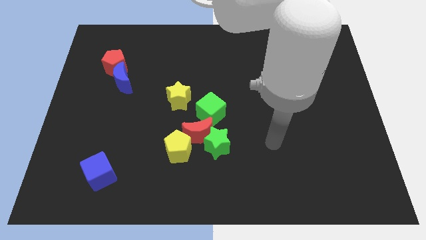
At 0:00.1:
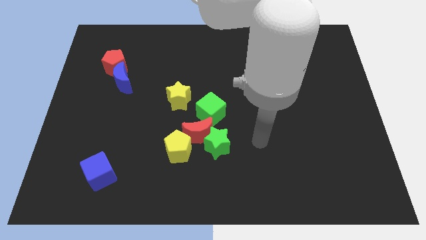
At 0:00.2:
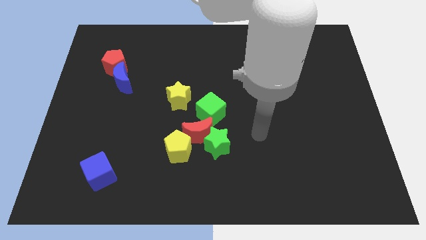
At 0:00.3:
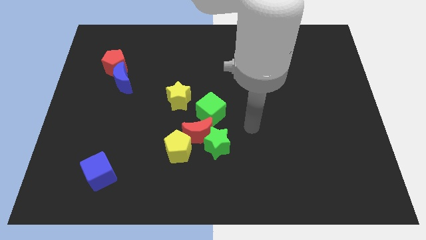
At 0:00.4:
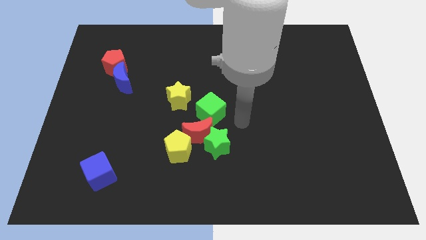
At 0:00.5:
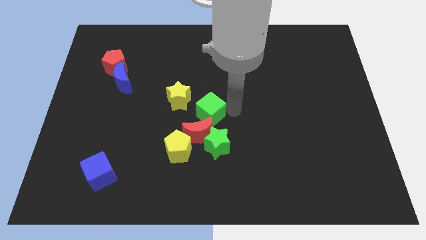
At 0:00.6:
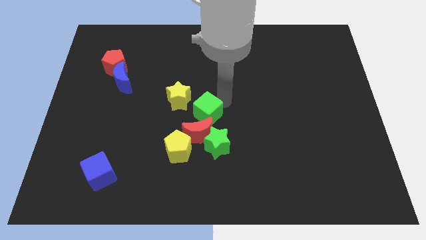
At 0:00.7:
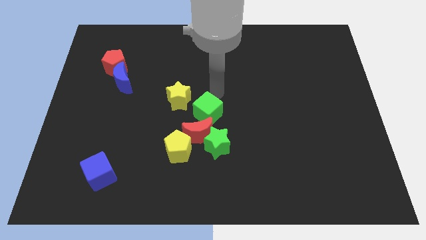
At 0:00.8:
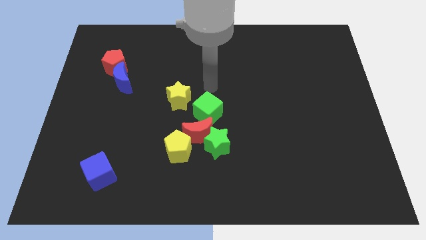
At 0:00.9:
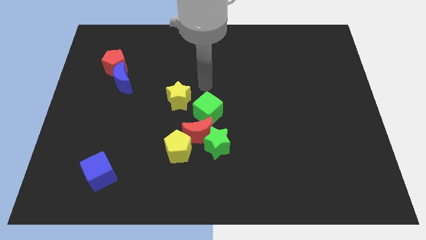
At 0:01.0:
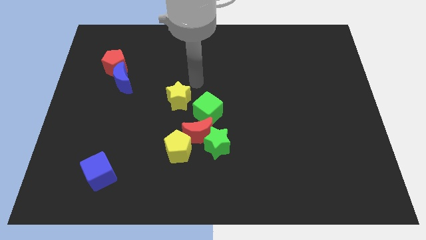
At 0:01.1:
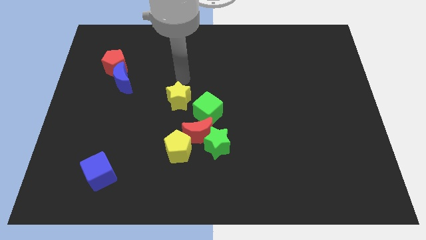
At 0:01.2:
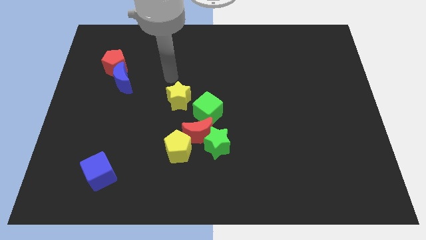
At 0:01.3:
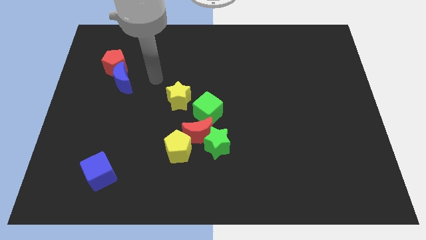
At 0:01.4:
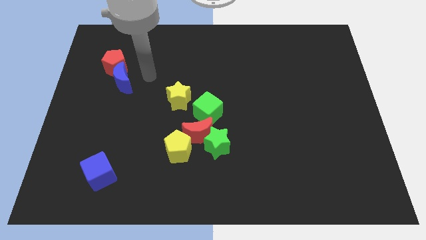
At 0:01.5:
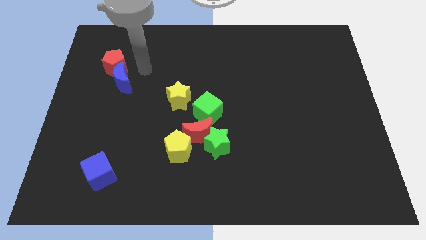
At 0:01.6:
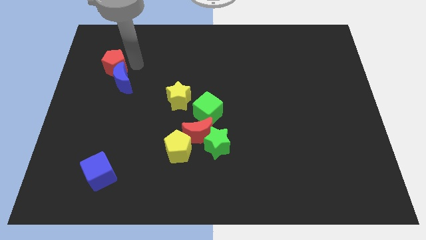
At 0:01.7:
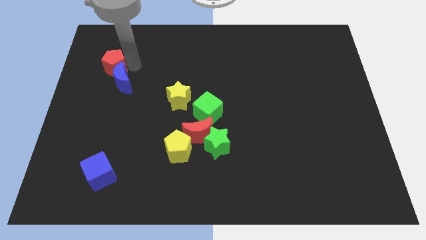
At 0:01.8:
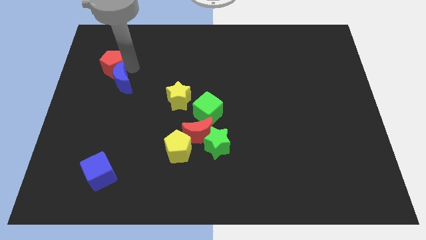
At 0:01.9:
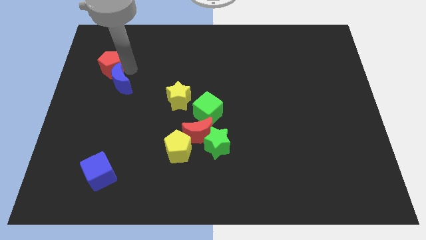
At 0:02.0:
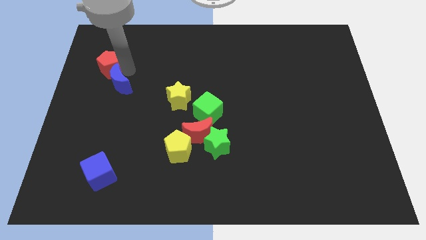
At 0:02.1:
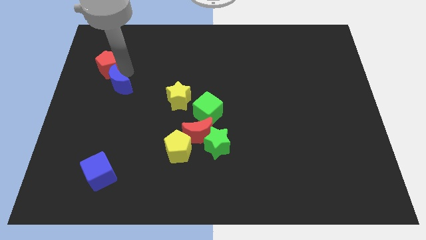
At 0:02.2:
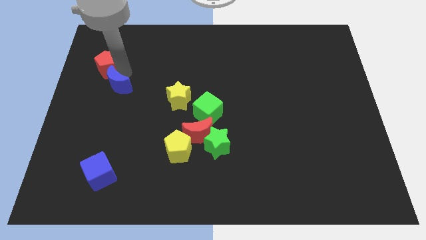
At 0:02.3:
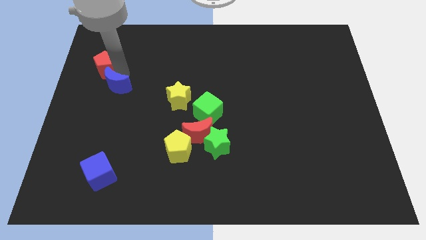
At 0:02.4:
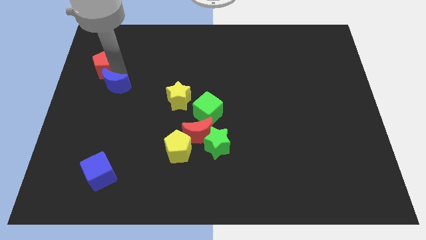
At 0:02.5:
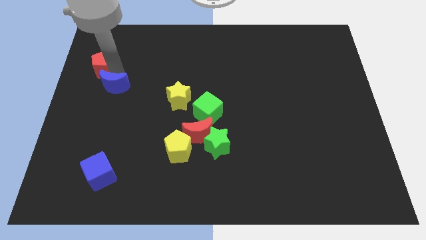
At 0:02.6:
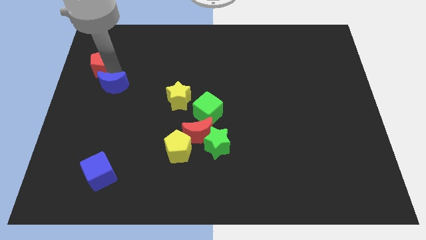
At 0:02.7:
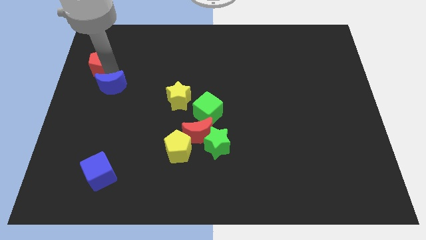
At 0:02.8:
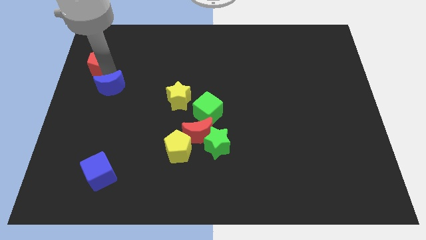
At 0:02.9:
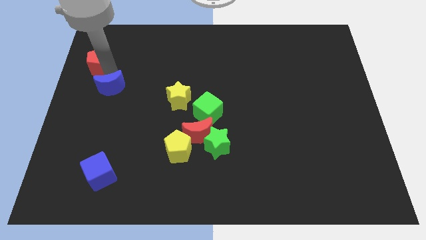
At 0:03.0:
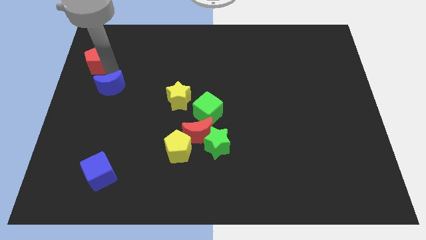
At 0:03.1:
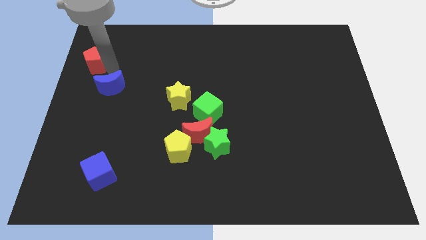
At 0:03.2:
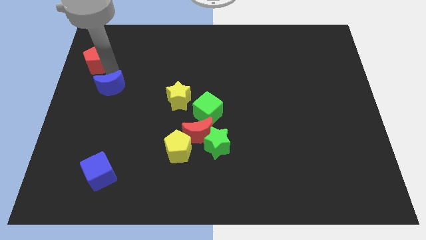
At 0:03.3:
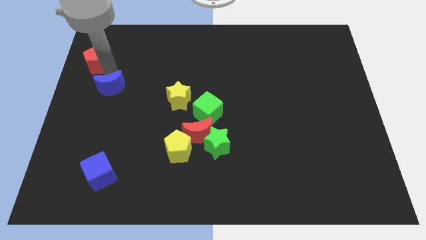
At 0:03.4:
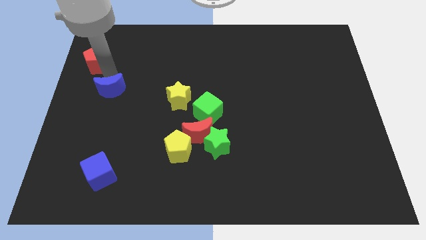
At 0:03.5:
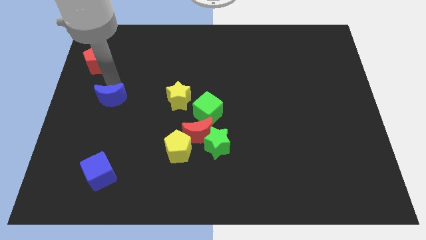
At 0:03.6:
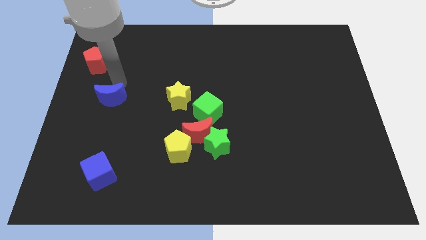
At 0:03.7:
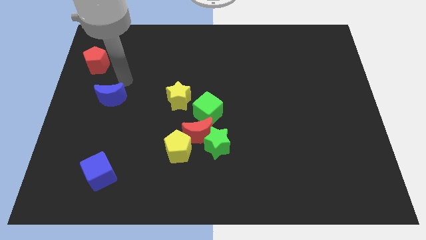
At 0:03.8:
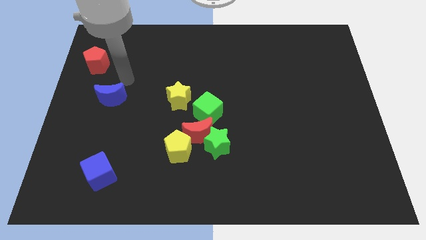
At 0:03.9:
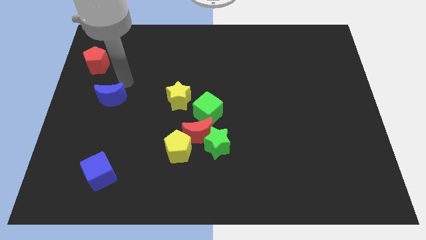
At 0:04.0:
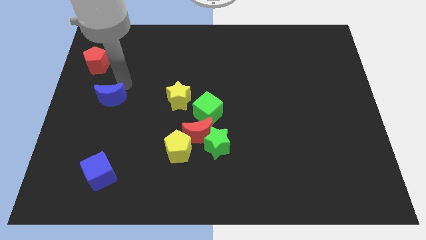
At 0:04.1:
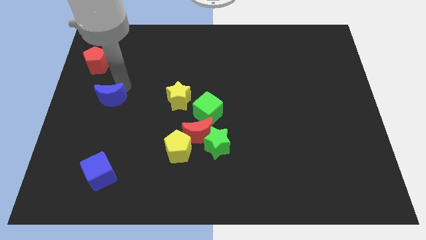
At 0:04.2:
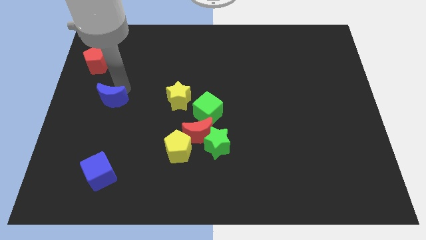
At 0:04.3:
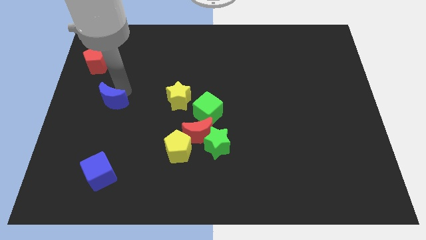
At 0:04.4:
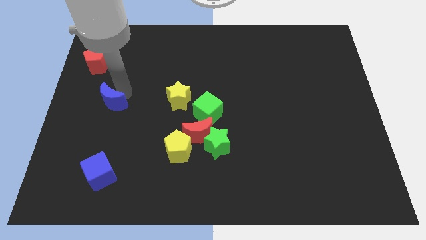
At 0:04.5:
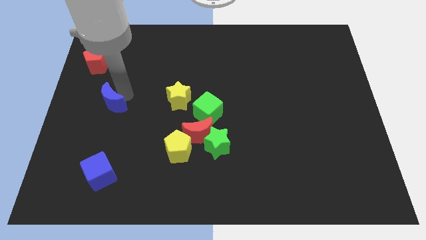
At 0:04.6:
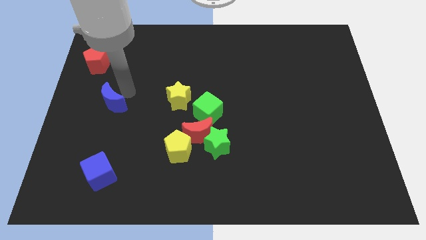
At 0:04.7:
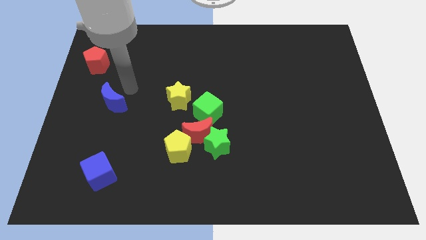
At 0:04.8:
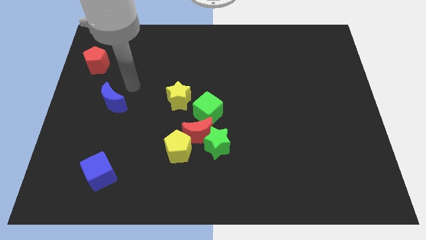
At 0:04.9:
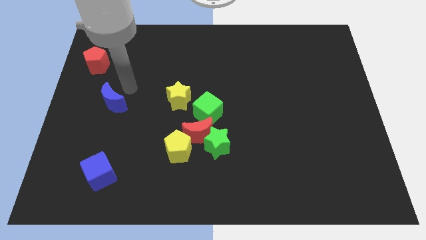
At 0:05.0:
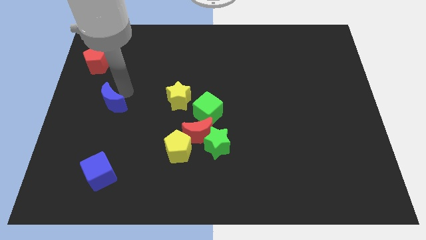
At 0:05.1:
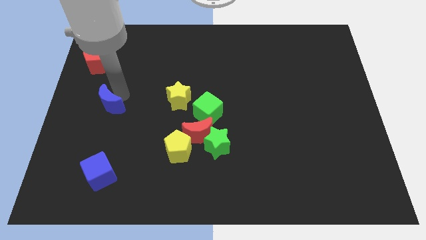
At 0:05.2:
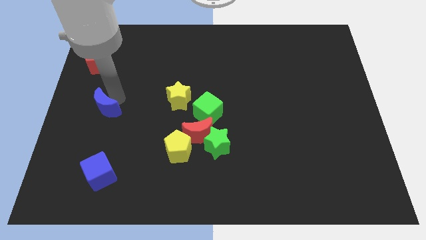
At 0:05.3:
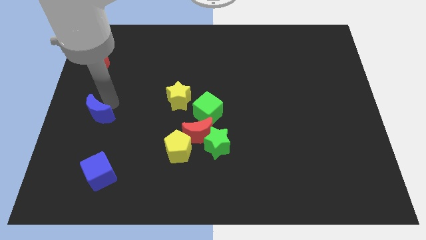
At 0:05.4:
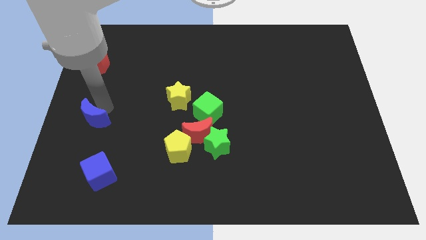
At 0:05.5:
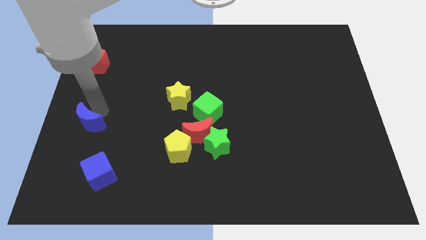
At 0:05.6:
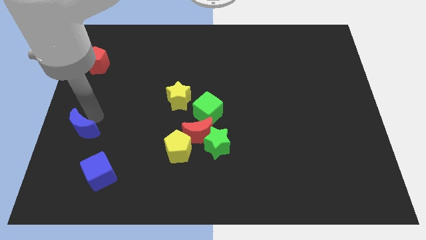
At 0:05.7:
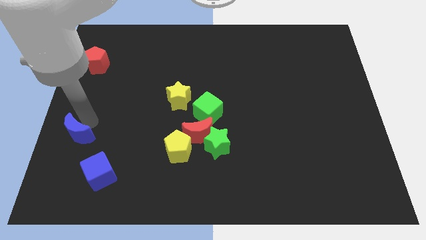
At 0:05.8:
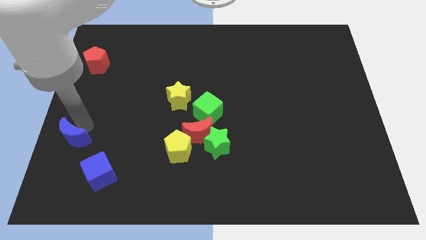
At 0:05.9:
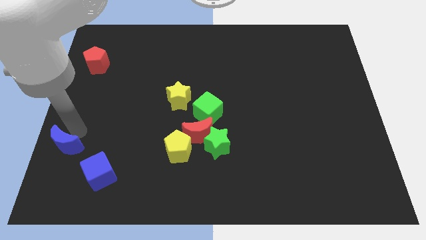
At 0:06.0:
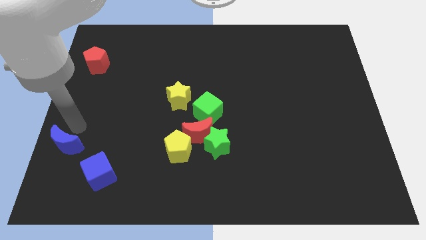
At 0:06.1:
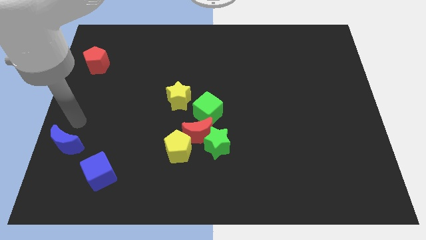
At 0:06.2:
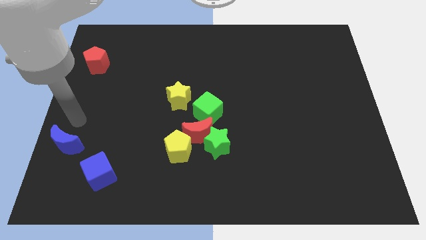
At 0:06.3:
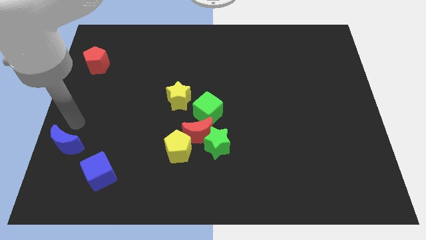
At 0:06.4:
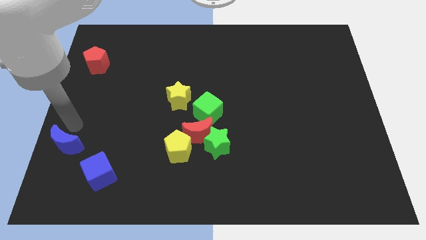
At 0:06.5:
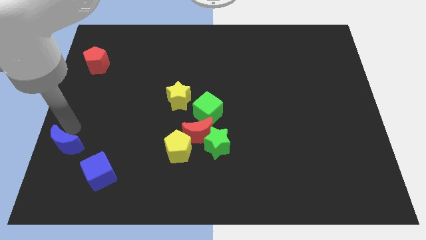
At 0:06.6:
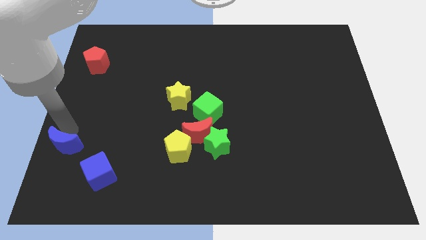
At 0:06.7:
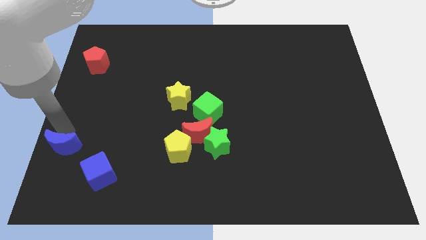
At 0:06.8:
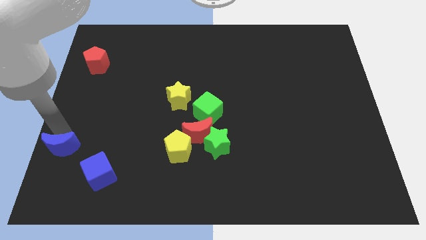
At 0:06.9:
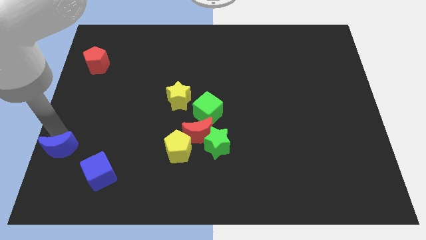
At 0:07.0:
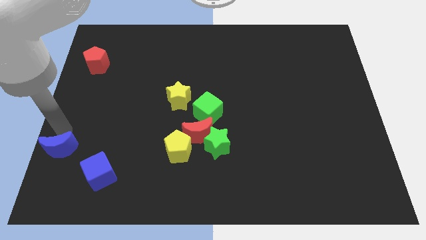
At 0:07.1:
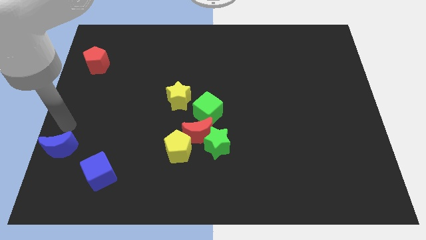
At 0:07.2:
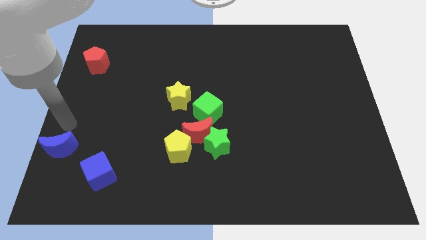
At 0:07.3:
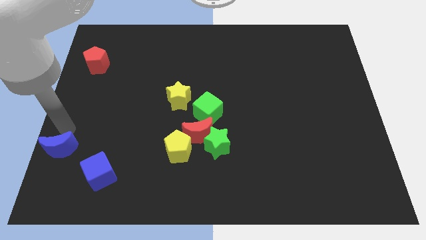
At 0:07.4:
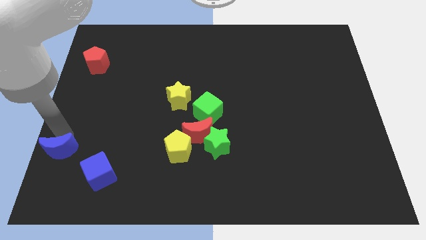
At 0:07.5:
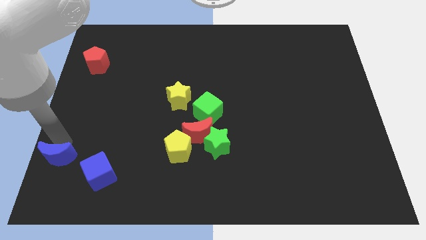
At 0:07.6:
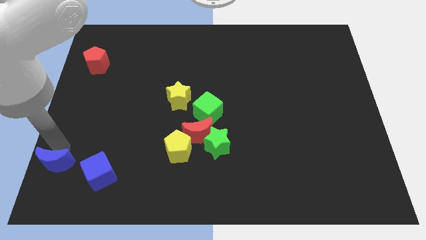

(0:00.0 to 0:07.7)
push the blue moon to the bottom left of the board
